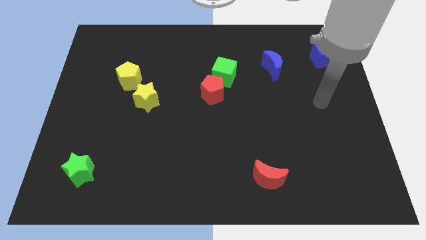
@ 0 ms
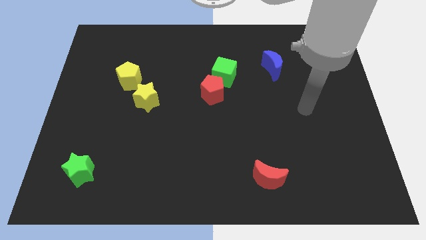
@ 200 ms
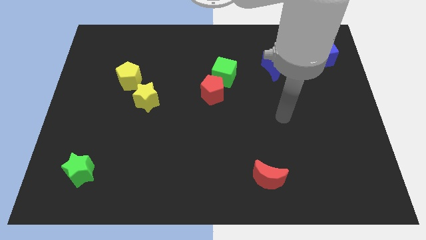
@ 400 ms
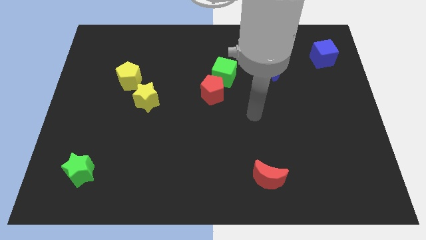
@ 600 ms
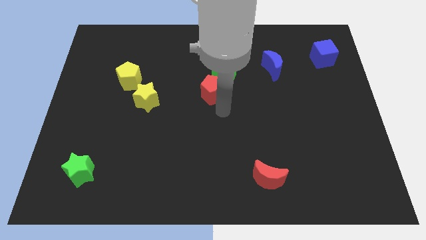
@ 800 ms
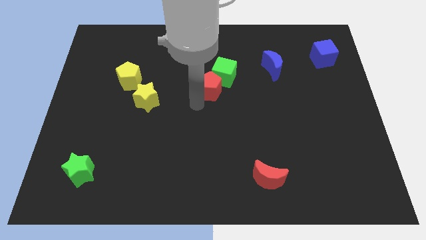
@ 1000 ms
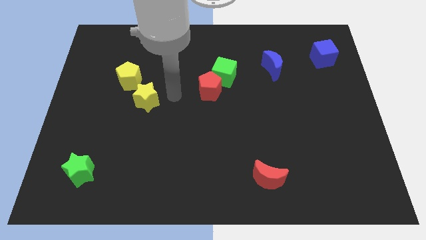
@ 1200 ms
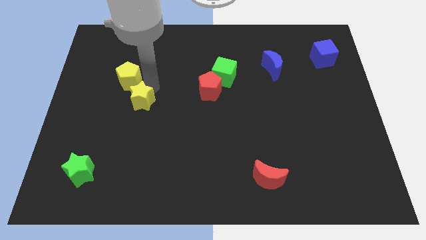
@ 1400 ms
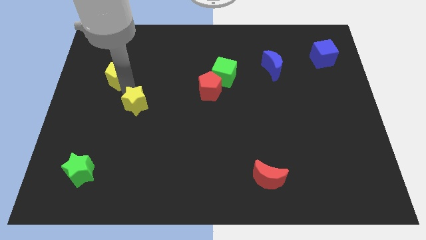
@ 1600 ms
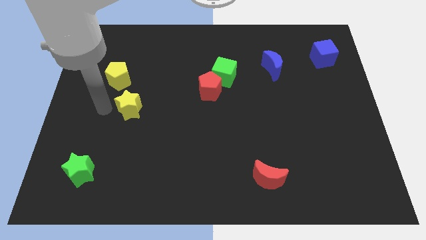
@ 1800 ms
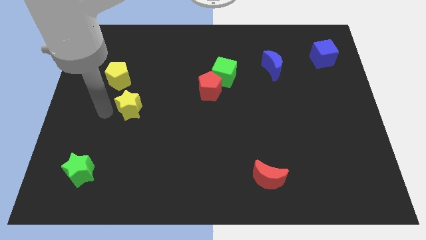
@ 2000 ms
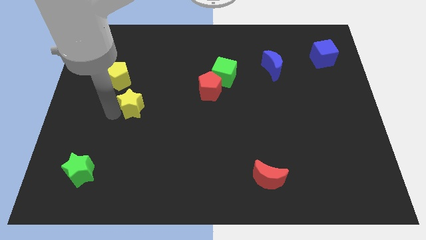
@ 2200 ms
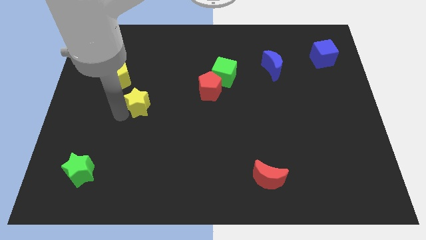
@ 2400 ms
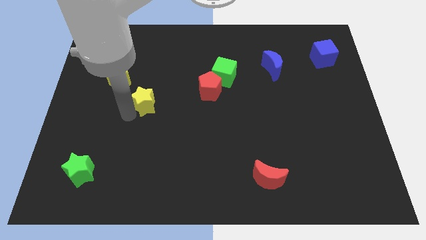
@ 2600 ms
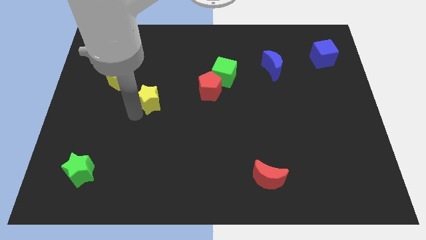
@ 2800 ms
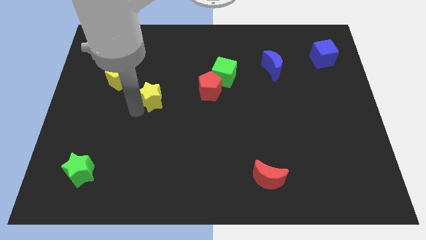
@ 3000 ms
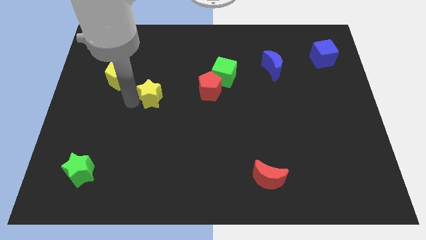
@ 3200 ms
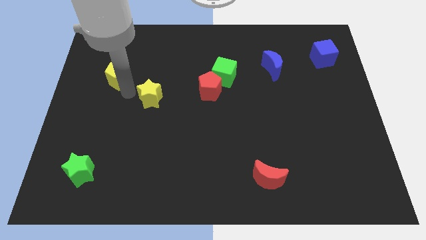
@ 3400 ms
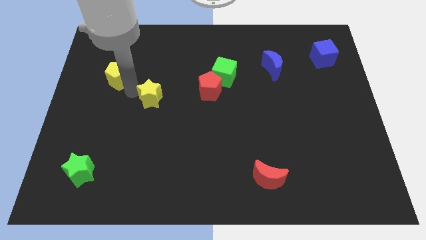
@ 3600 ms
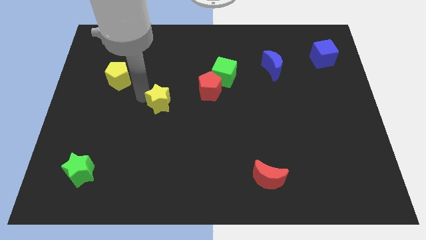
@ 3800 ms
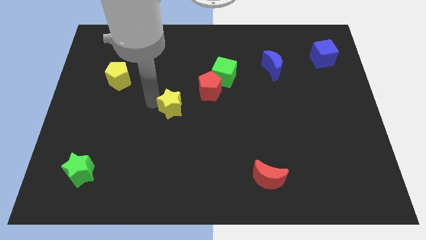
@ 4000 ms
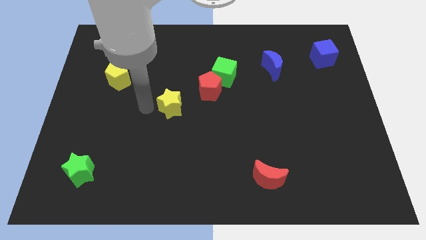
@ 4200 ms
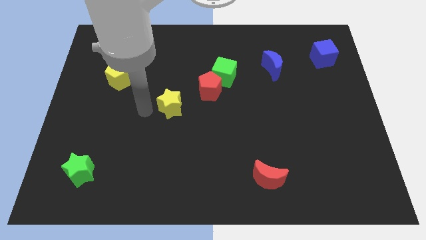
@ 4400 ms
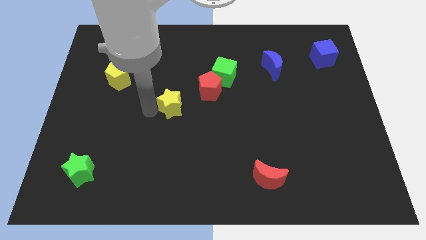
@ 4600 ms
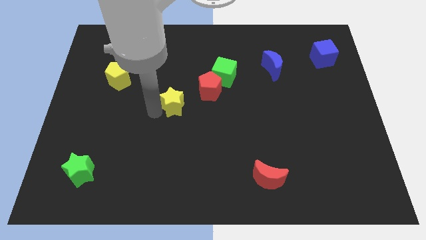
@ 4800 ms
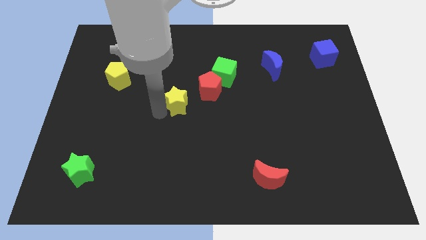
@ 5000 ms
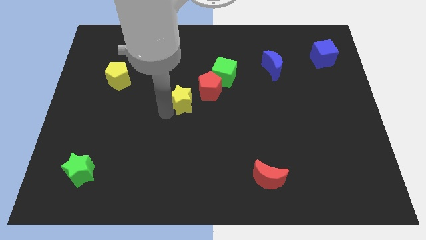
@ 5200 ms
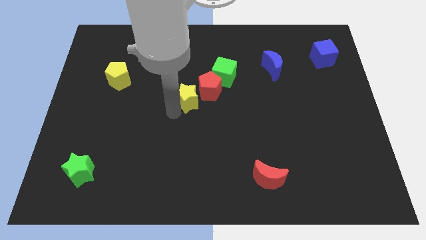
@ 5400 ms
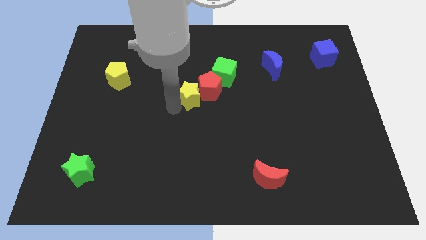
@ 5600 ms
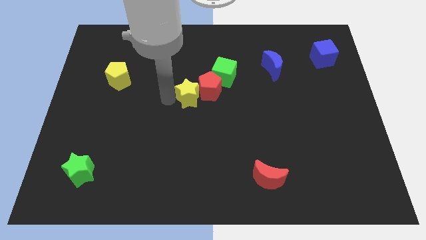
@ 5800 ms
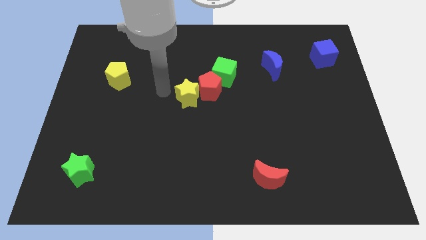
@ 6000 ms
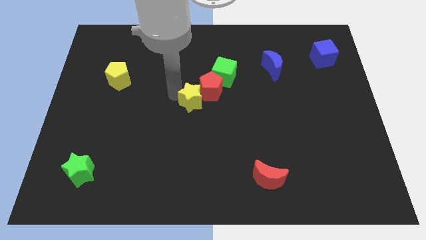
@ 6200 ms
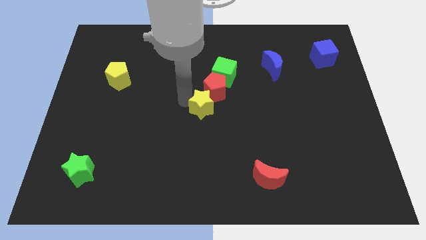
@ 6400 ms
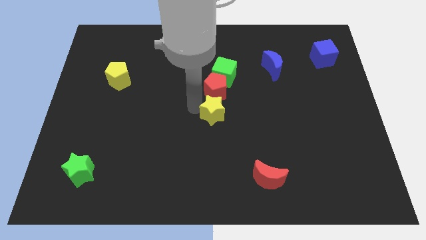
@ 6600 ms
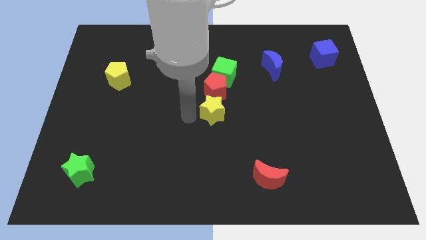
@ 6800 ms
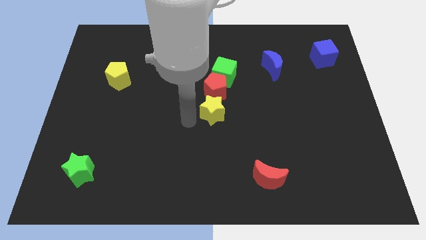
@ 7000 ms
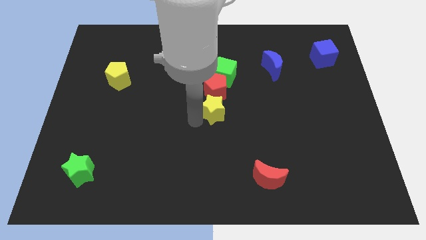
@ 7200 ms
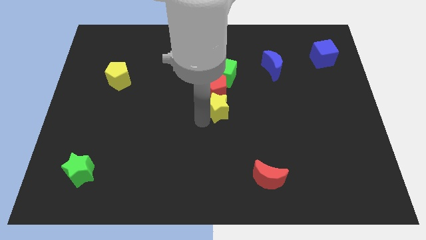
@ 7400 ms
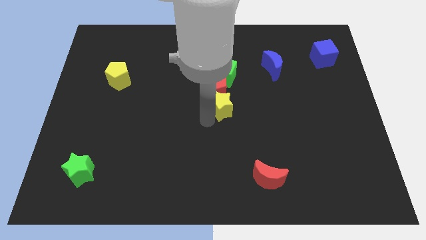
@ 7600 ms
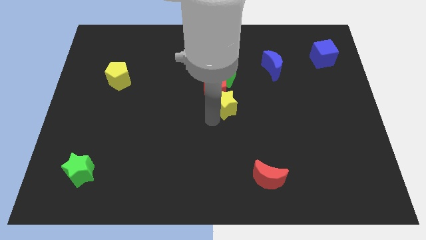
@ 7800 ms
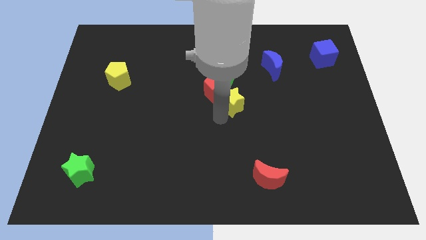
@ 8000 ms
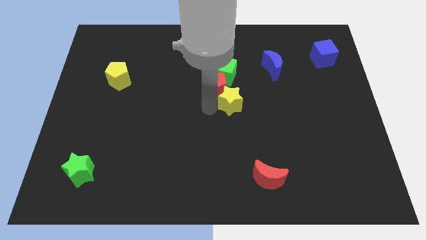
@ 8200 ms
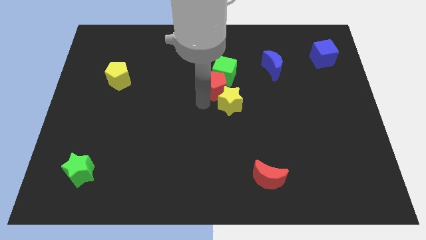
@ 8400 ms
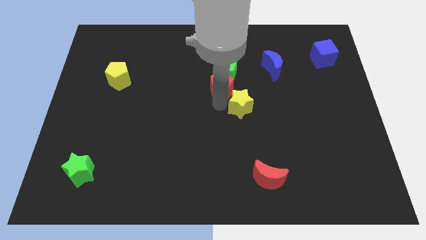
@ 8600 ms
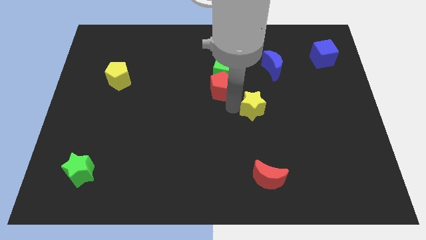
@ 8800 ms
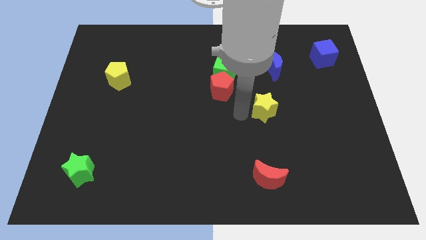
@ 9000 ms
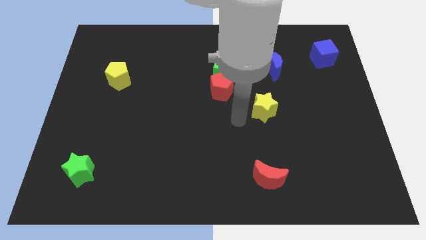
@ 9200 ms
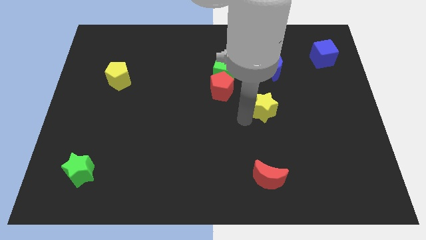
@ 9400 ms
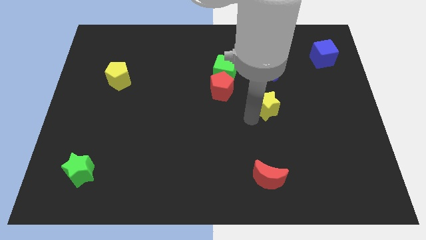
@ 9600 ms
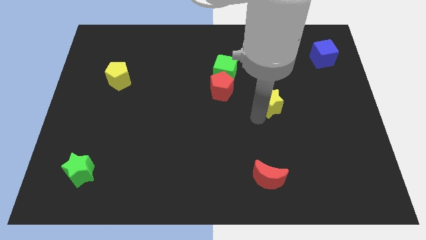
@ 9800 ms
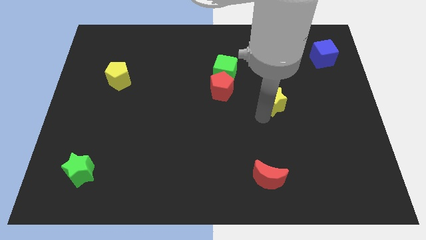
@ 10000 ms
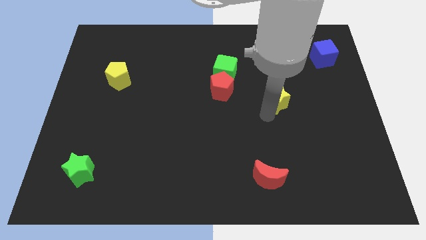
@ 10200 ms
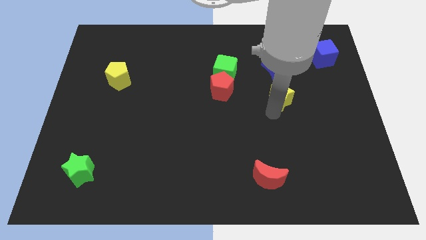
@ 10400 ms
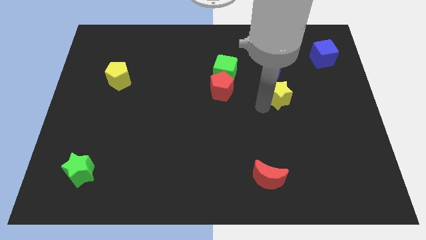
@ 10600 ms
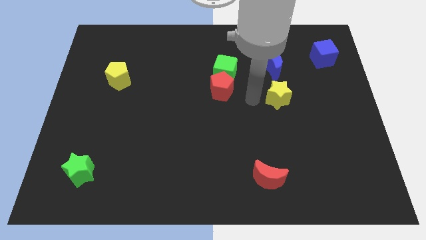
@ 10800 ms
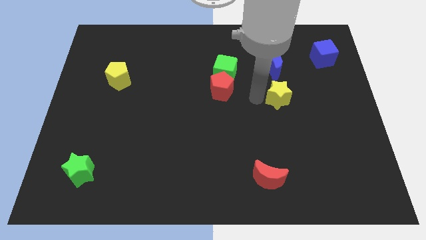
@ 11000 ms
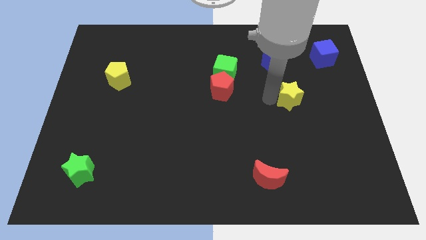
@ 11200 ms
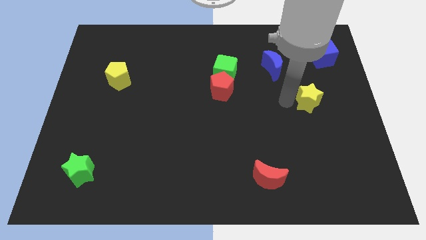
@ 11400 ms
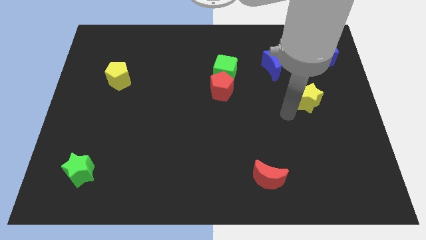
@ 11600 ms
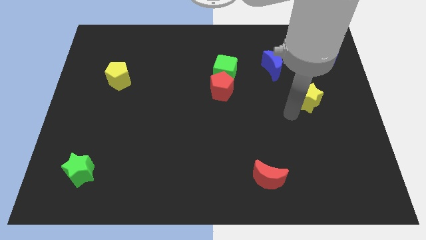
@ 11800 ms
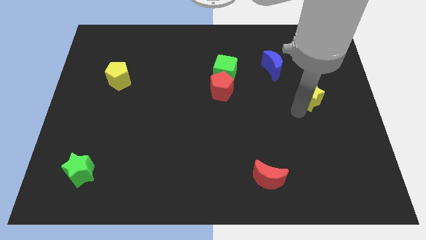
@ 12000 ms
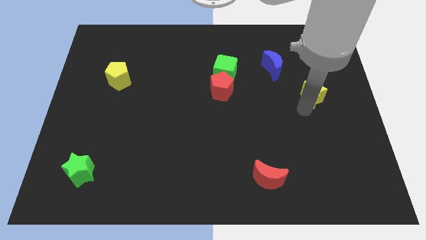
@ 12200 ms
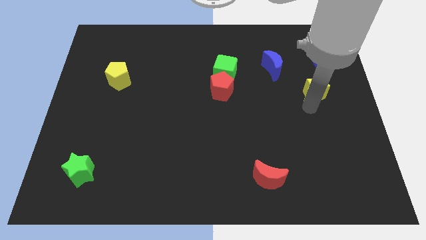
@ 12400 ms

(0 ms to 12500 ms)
move the yellow star below the blue cube

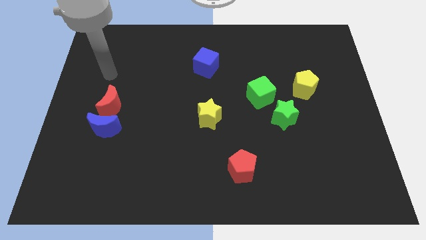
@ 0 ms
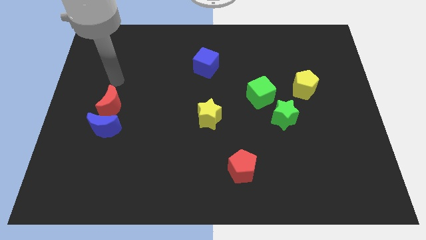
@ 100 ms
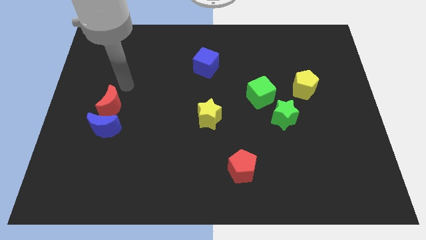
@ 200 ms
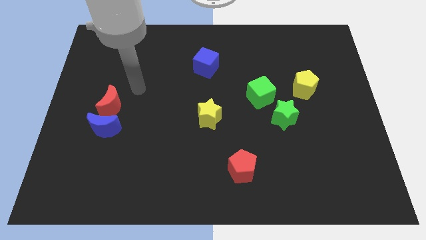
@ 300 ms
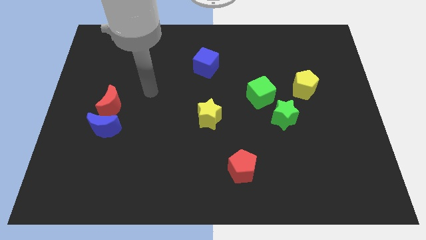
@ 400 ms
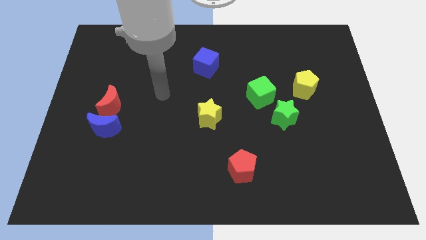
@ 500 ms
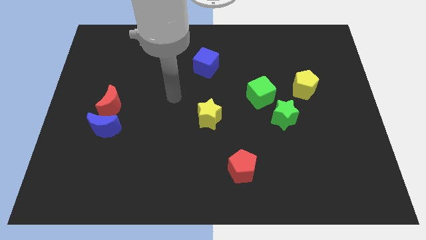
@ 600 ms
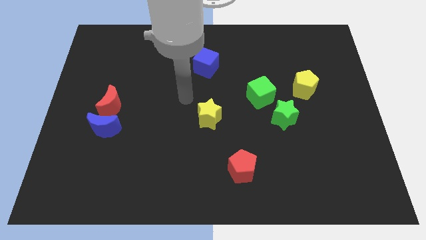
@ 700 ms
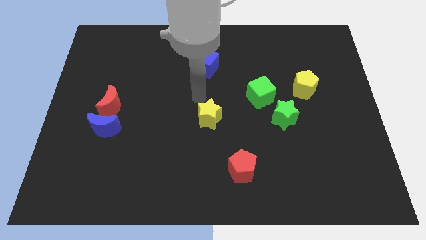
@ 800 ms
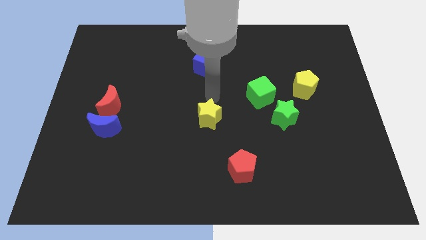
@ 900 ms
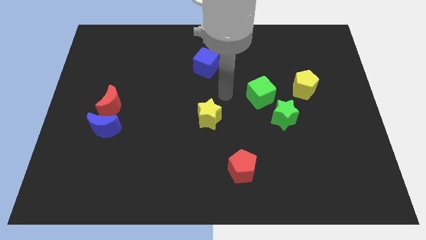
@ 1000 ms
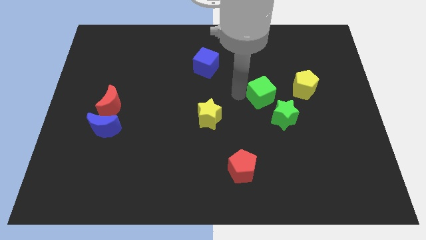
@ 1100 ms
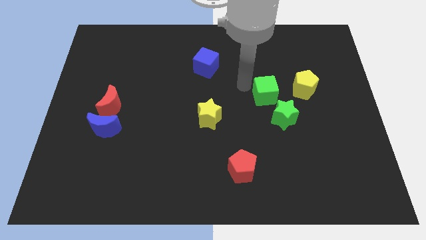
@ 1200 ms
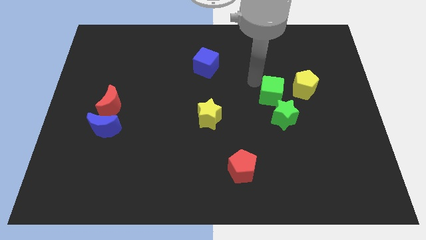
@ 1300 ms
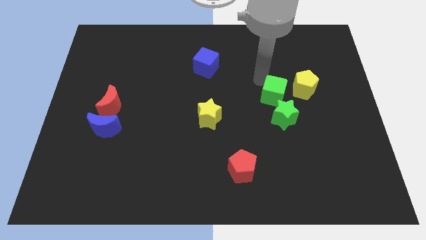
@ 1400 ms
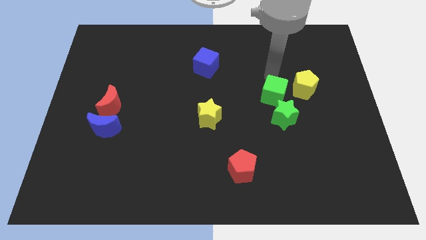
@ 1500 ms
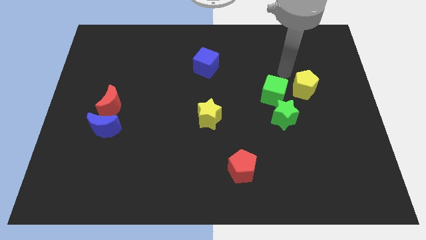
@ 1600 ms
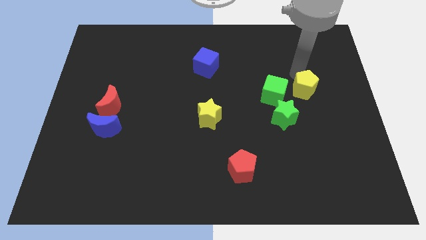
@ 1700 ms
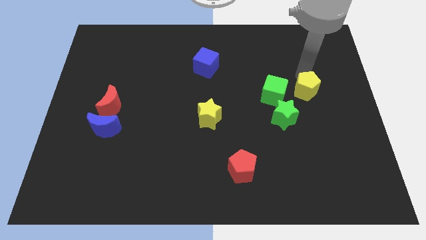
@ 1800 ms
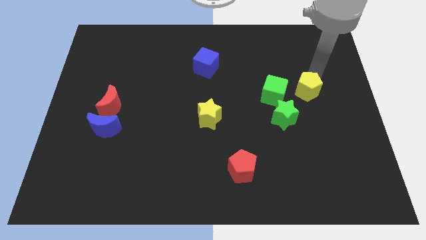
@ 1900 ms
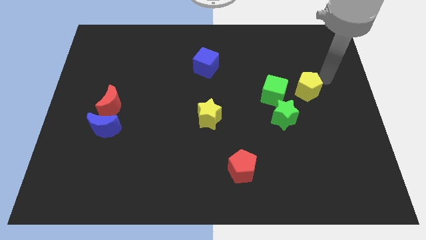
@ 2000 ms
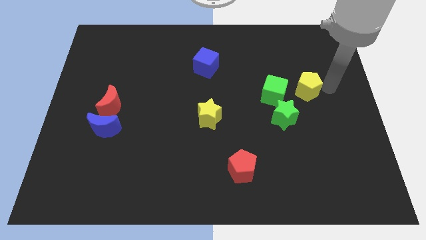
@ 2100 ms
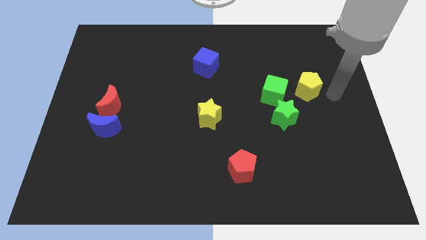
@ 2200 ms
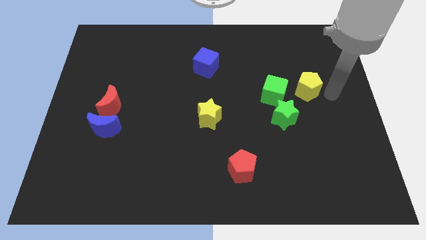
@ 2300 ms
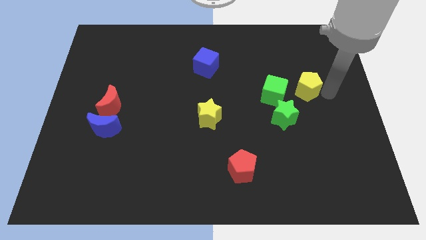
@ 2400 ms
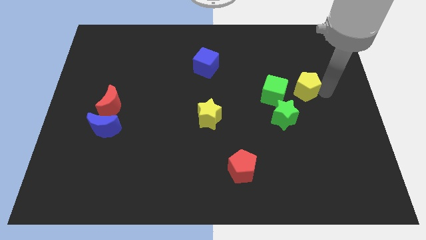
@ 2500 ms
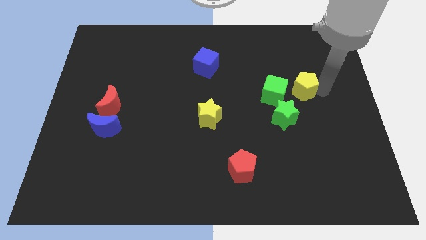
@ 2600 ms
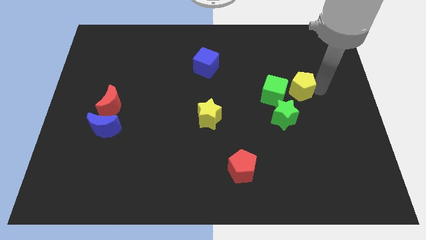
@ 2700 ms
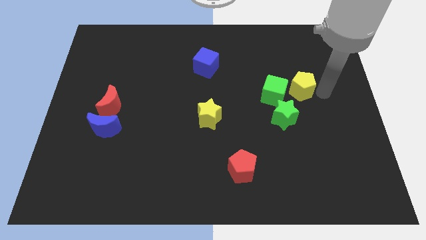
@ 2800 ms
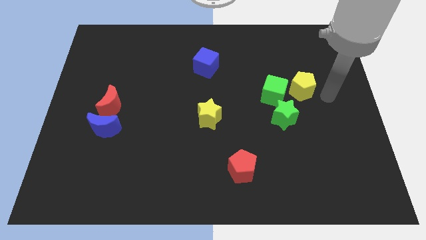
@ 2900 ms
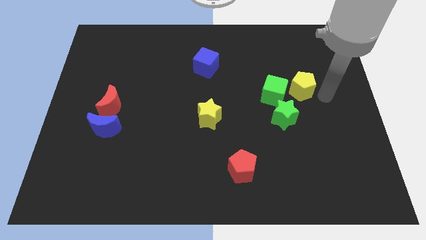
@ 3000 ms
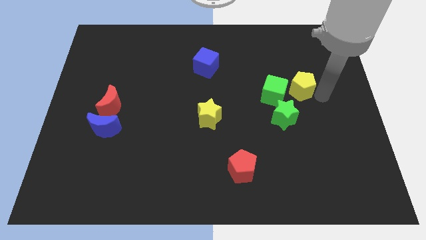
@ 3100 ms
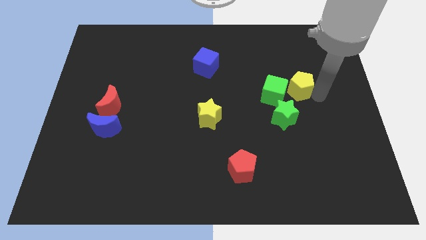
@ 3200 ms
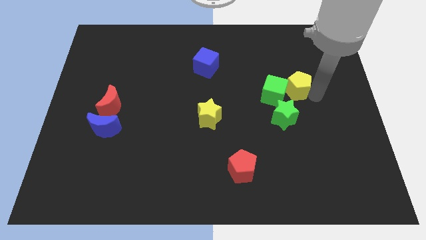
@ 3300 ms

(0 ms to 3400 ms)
move the yellow pentagon to the top side of the green star
